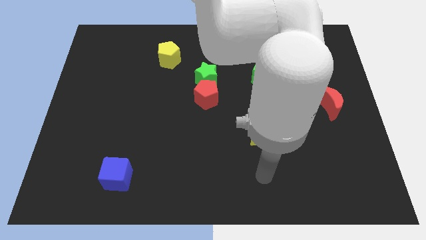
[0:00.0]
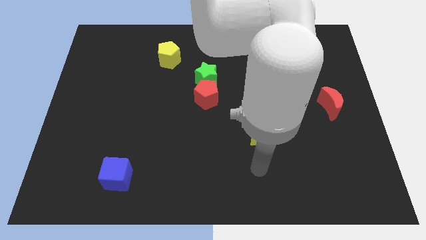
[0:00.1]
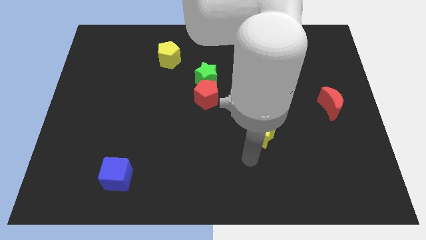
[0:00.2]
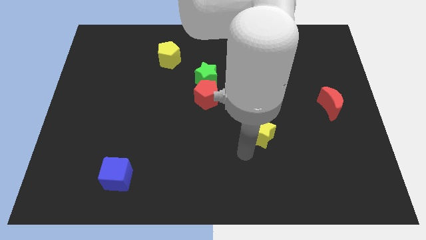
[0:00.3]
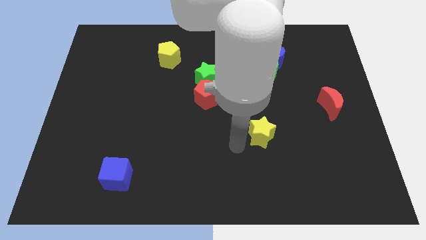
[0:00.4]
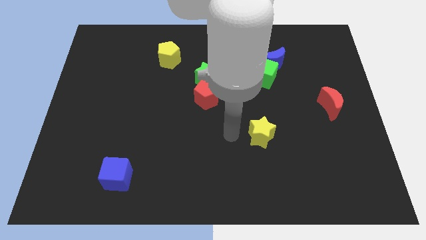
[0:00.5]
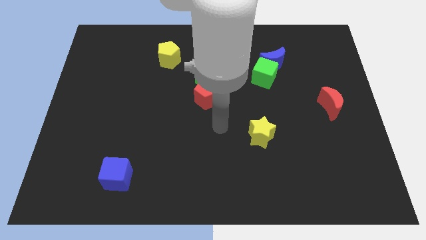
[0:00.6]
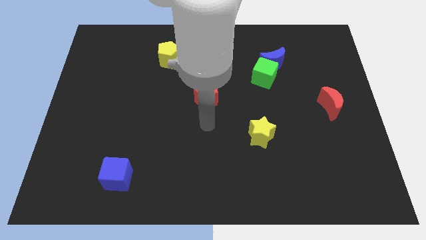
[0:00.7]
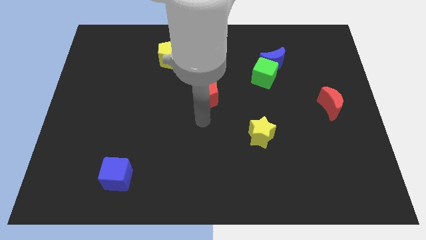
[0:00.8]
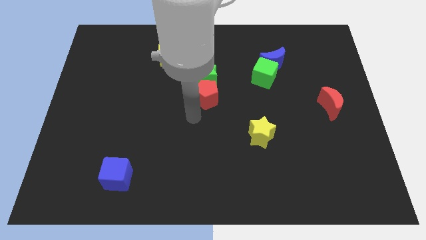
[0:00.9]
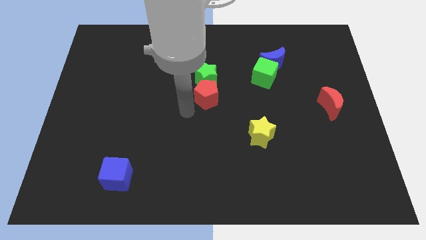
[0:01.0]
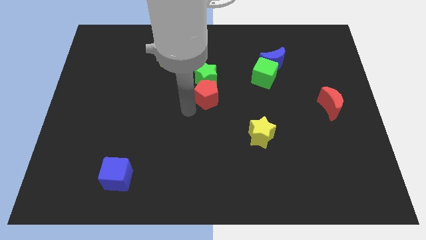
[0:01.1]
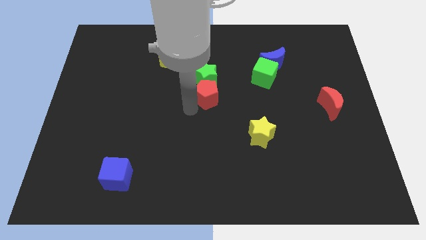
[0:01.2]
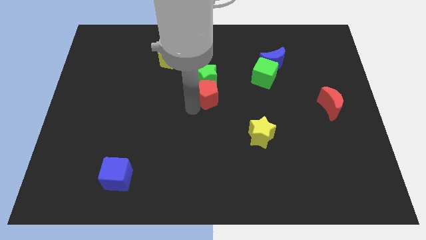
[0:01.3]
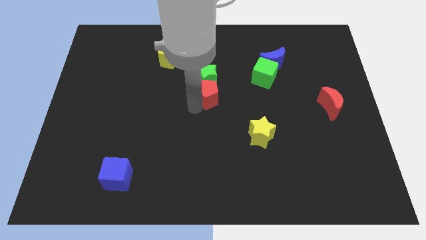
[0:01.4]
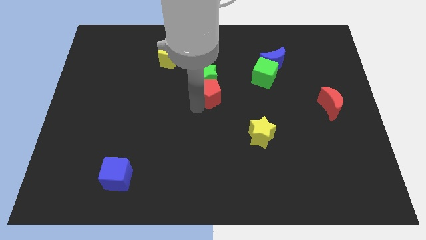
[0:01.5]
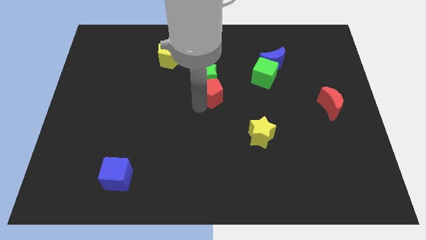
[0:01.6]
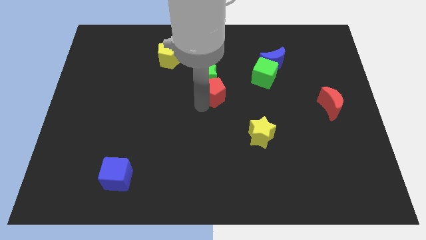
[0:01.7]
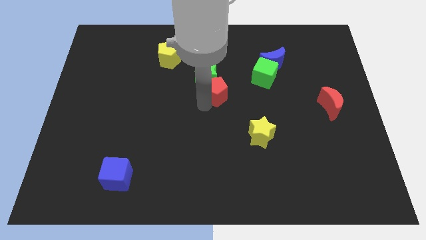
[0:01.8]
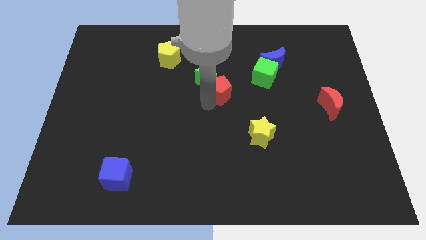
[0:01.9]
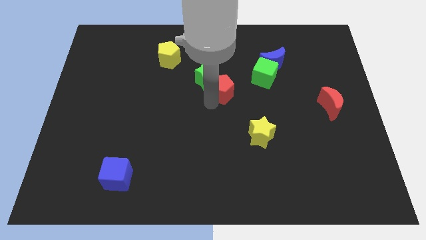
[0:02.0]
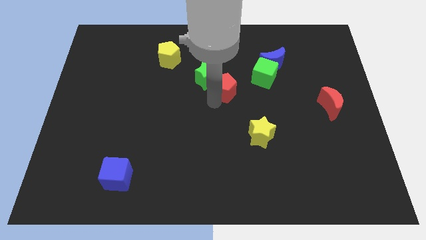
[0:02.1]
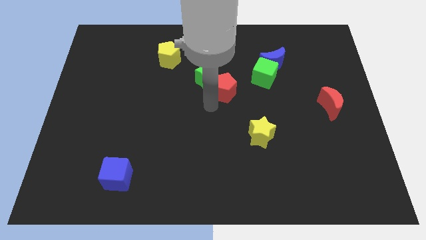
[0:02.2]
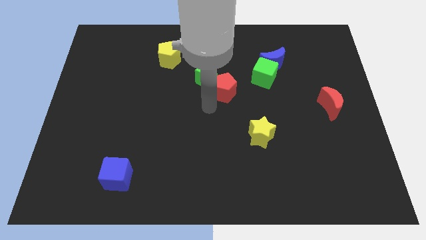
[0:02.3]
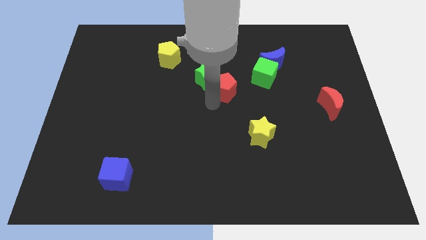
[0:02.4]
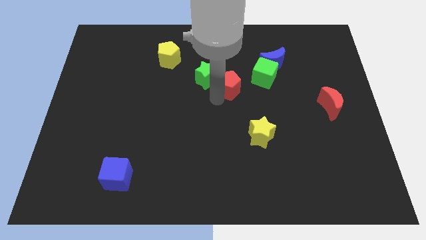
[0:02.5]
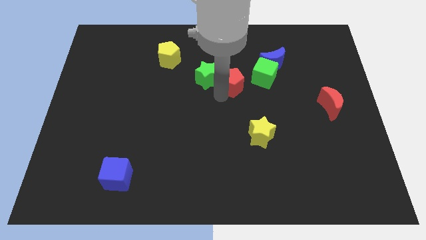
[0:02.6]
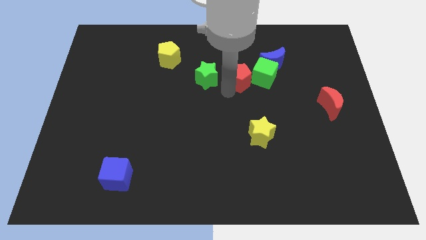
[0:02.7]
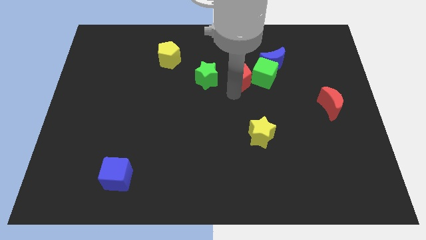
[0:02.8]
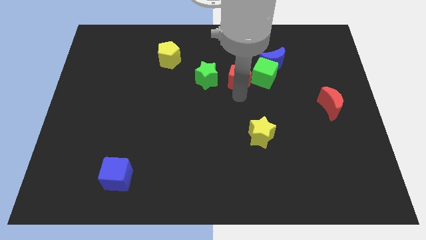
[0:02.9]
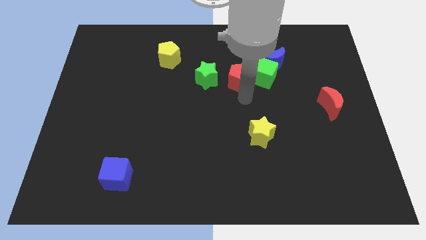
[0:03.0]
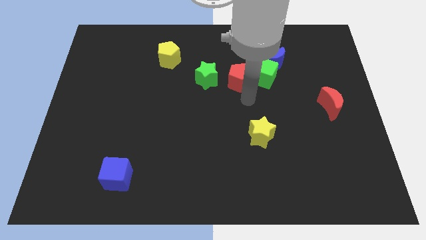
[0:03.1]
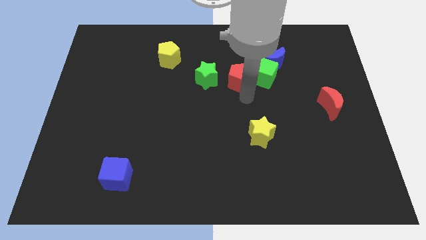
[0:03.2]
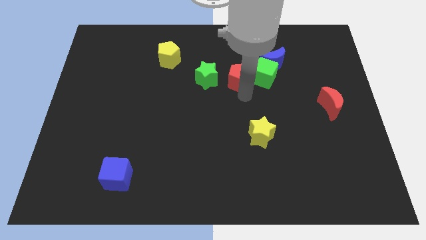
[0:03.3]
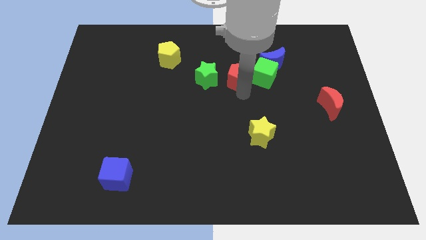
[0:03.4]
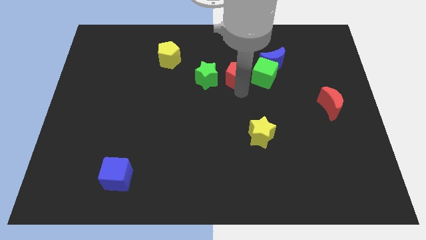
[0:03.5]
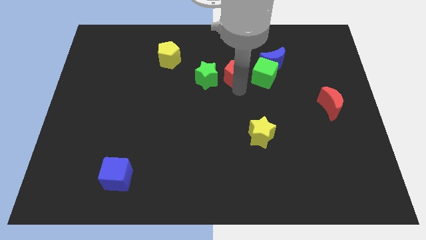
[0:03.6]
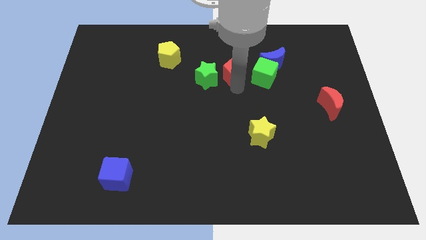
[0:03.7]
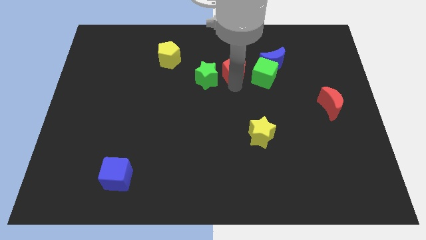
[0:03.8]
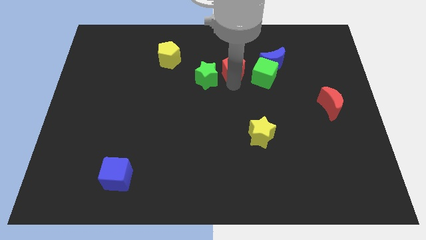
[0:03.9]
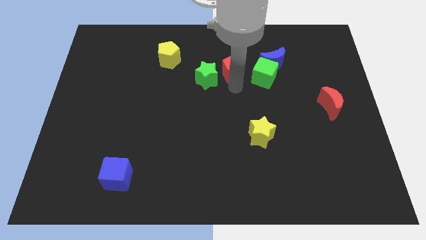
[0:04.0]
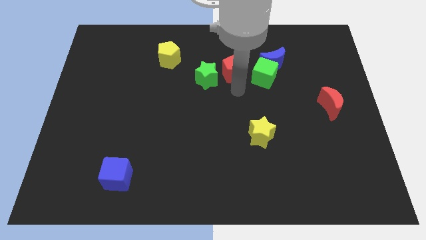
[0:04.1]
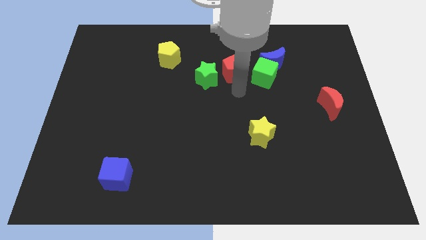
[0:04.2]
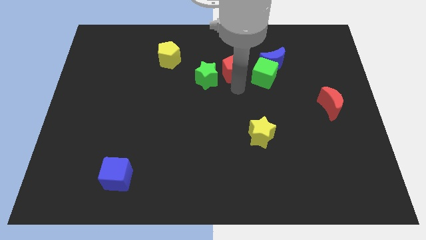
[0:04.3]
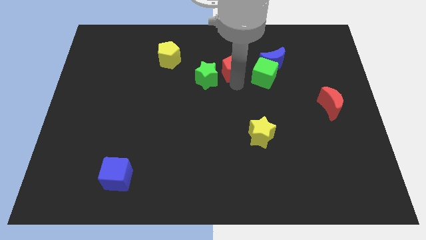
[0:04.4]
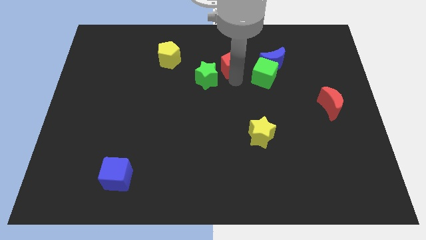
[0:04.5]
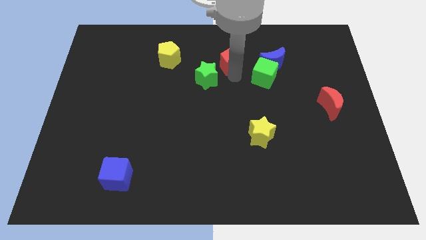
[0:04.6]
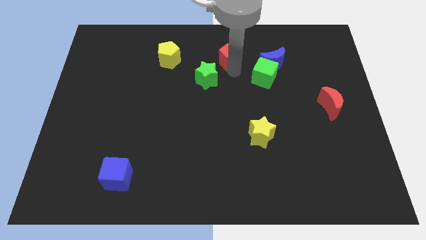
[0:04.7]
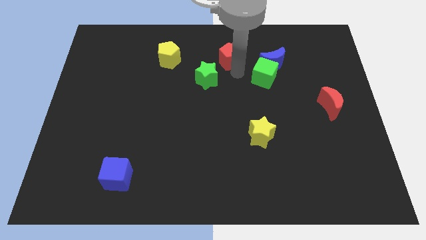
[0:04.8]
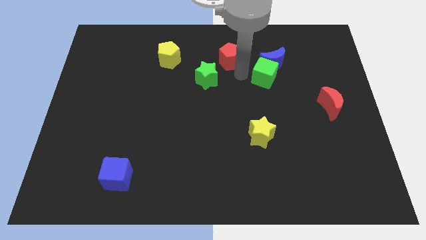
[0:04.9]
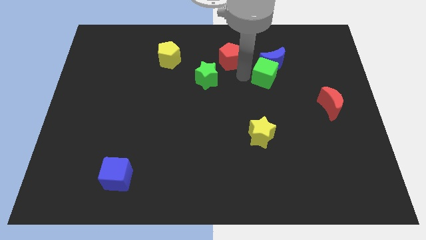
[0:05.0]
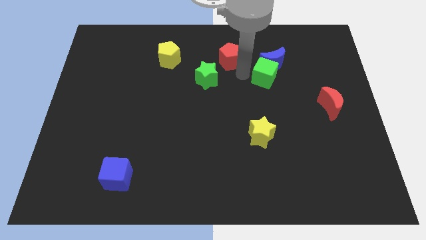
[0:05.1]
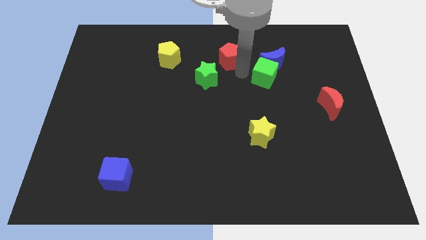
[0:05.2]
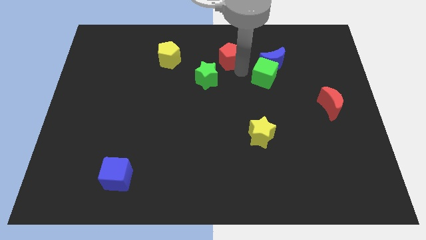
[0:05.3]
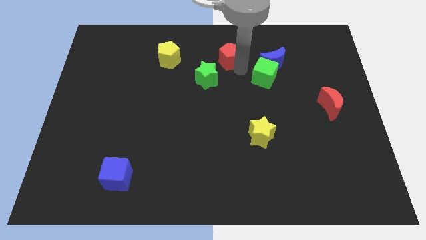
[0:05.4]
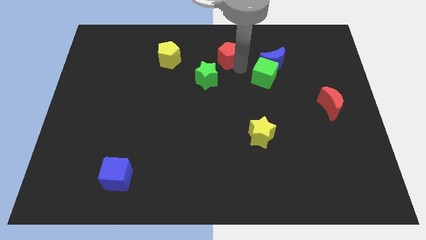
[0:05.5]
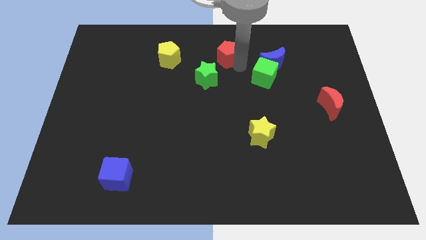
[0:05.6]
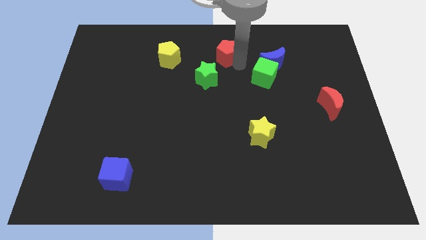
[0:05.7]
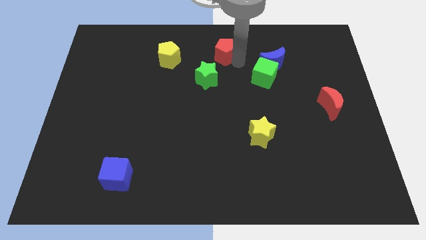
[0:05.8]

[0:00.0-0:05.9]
slide the red pentagon to the towards your base

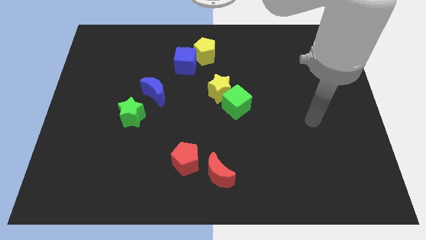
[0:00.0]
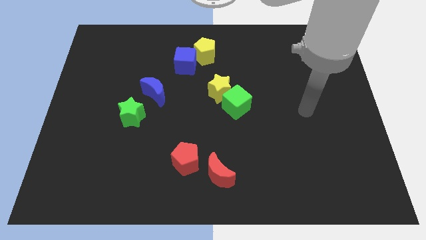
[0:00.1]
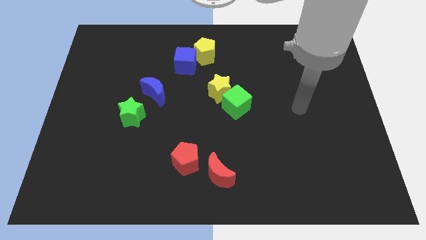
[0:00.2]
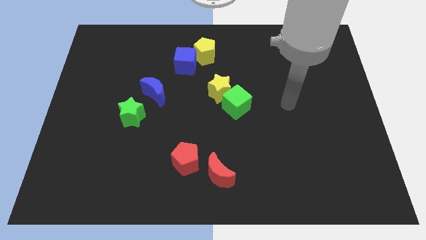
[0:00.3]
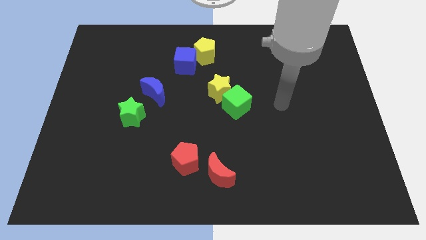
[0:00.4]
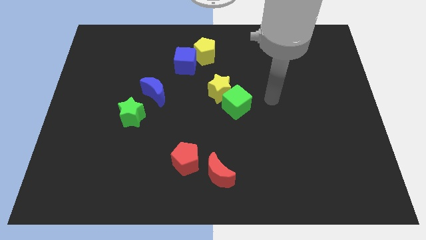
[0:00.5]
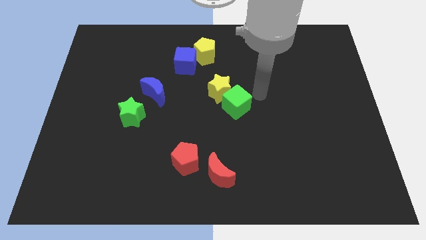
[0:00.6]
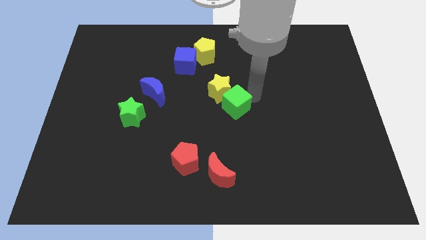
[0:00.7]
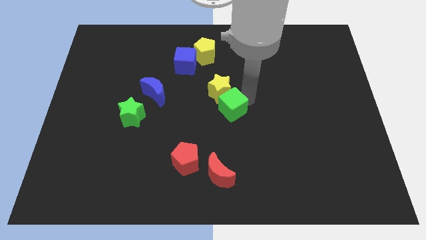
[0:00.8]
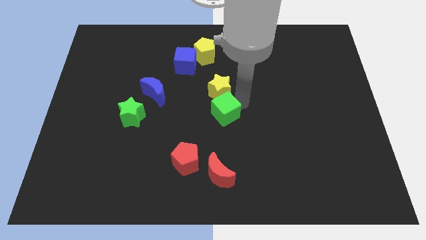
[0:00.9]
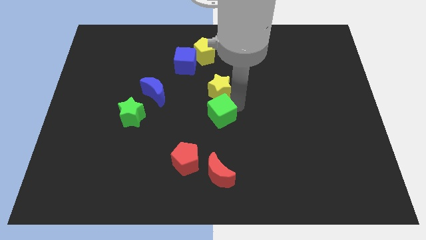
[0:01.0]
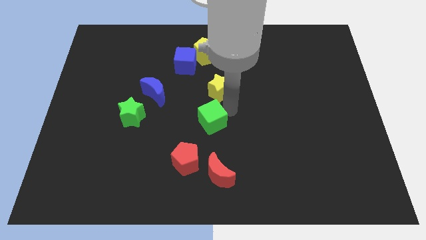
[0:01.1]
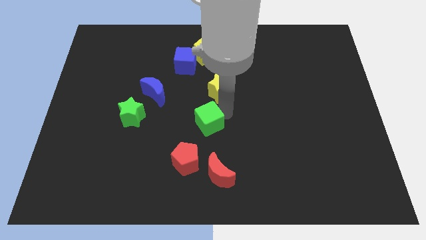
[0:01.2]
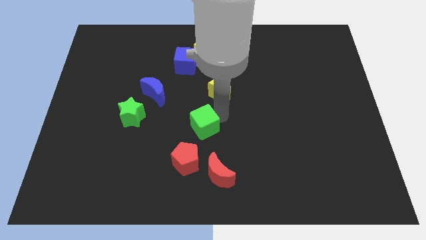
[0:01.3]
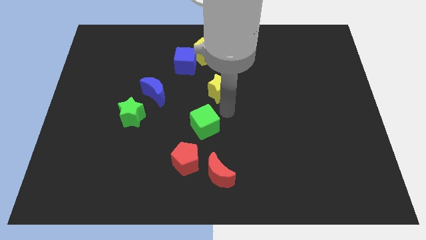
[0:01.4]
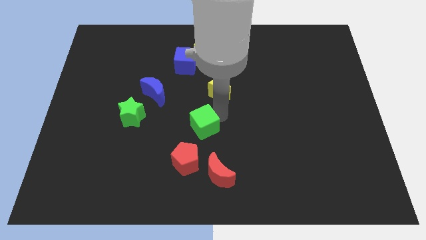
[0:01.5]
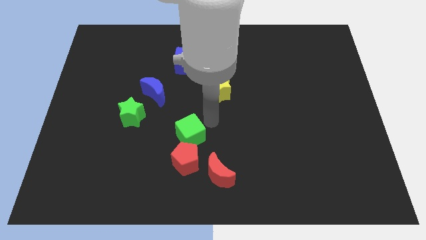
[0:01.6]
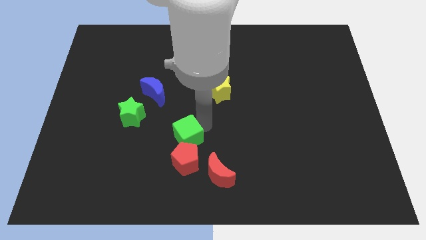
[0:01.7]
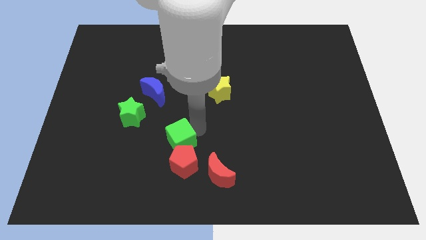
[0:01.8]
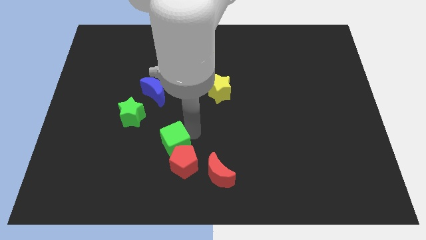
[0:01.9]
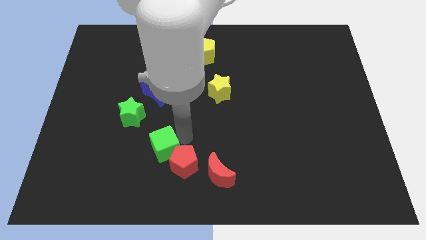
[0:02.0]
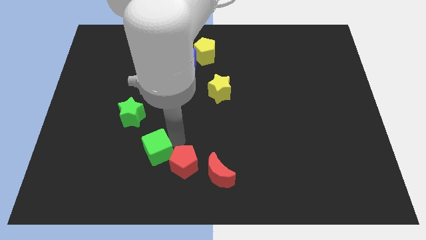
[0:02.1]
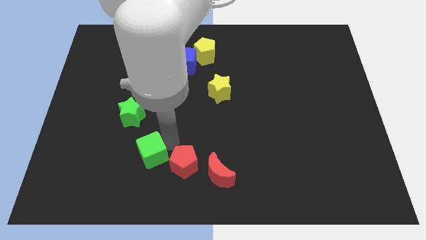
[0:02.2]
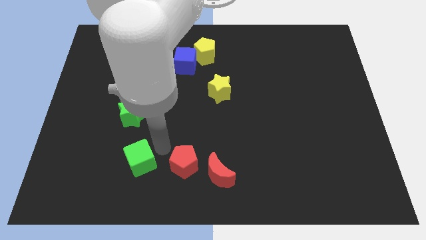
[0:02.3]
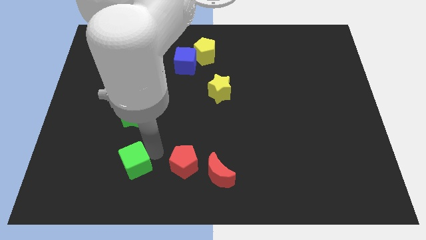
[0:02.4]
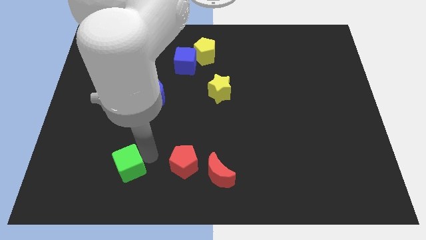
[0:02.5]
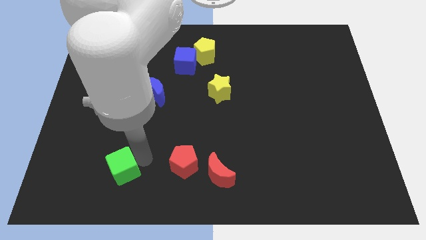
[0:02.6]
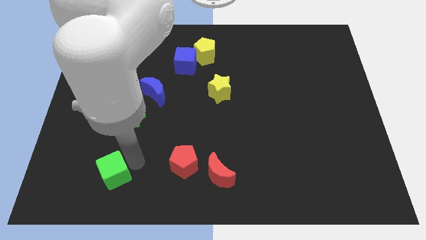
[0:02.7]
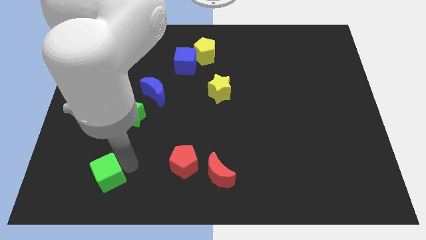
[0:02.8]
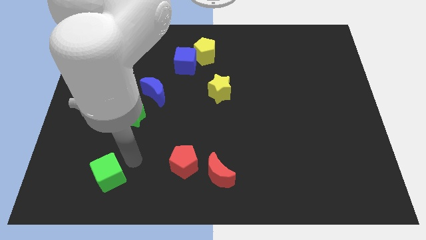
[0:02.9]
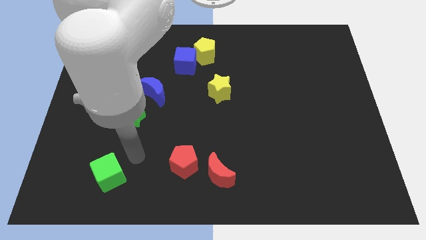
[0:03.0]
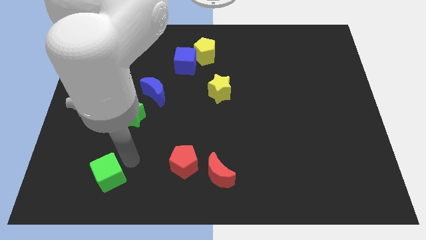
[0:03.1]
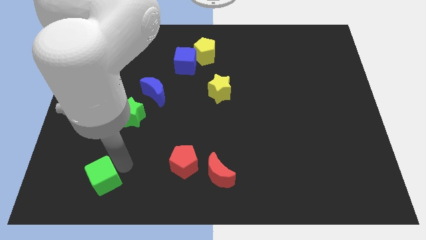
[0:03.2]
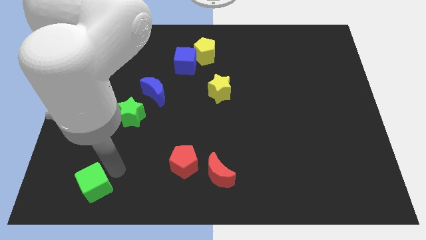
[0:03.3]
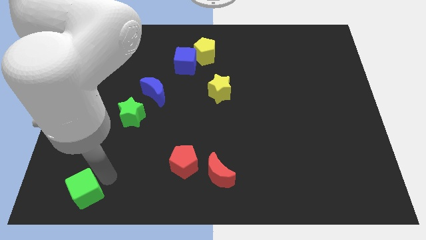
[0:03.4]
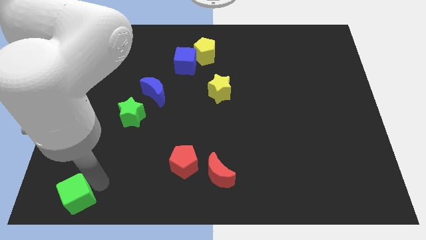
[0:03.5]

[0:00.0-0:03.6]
slide the green cube to the bottom left corner
